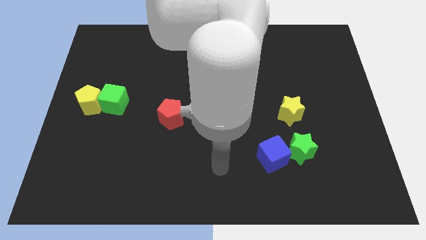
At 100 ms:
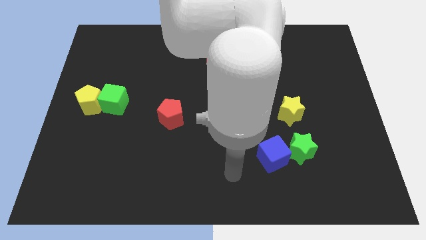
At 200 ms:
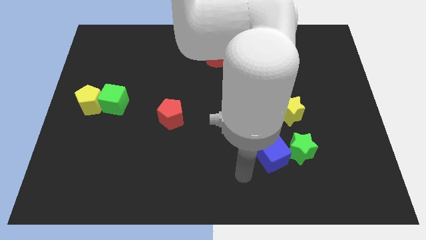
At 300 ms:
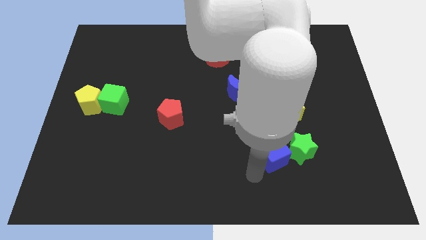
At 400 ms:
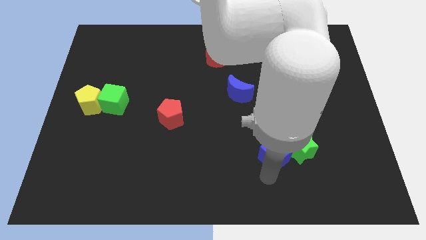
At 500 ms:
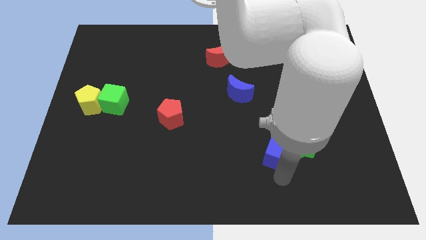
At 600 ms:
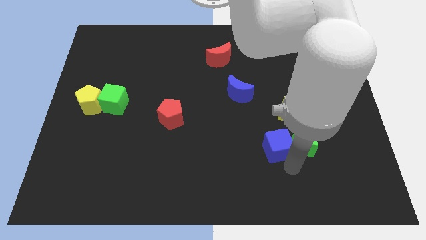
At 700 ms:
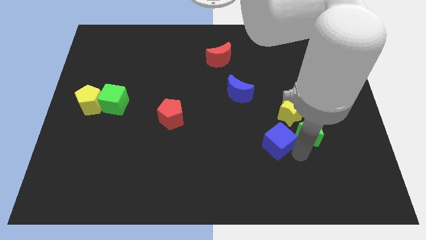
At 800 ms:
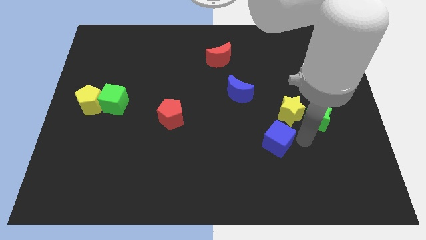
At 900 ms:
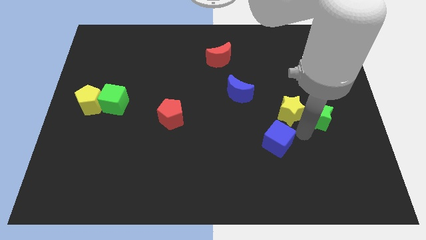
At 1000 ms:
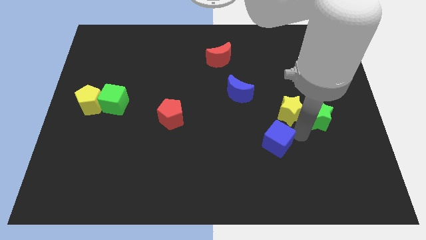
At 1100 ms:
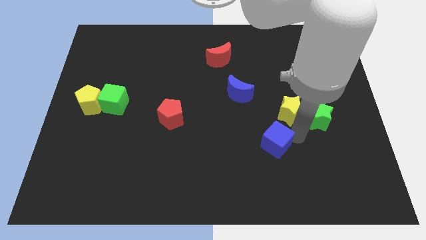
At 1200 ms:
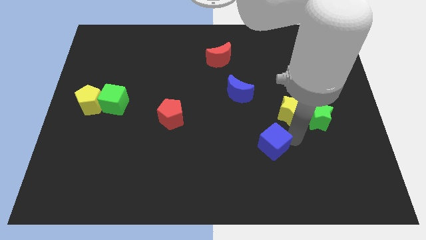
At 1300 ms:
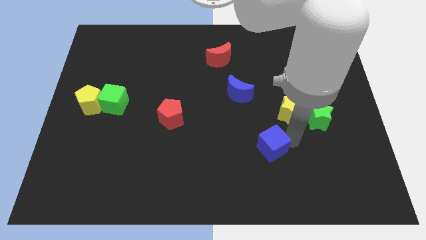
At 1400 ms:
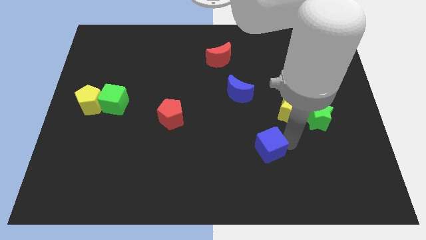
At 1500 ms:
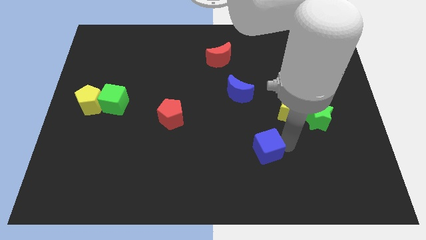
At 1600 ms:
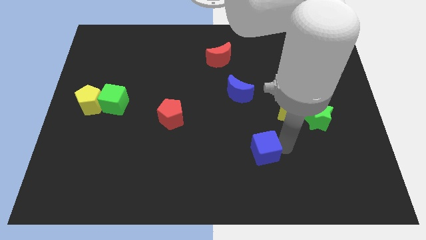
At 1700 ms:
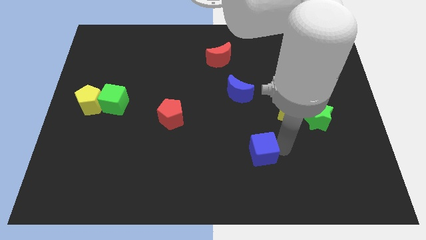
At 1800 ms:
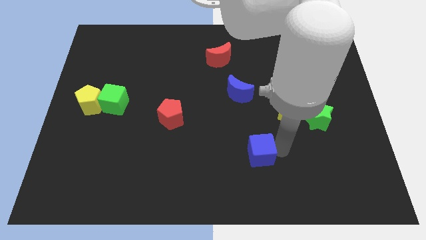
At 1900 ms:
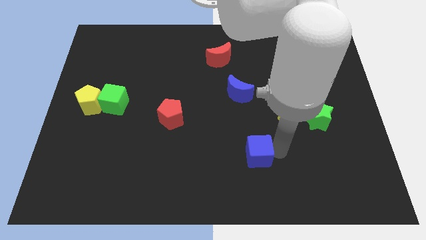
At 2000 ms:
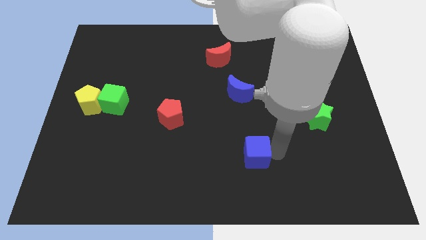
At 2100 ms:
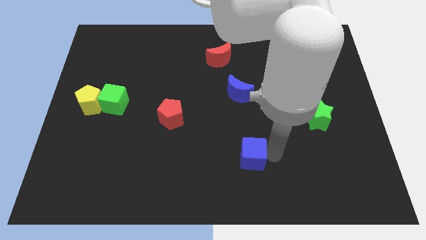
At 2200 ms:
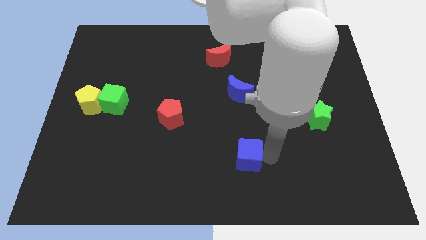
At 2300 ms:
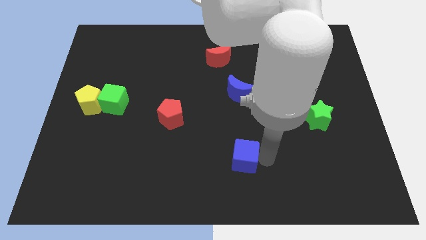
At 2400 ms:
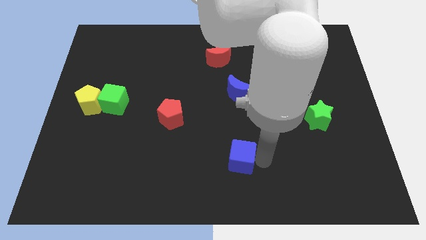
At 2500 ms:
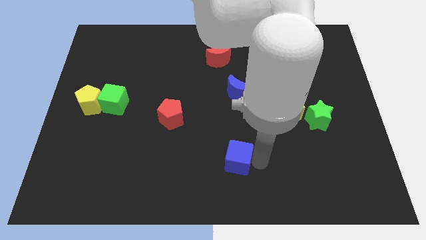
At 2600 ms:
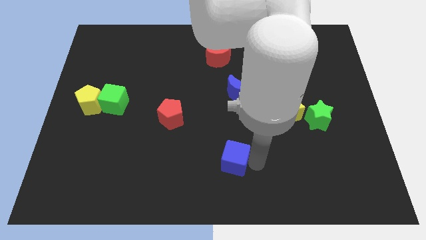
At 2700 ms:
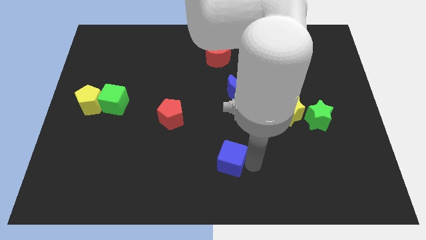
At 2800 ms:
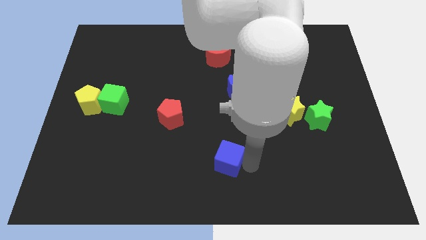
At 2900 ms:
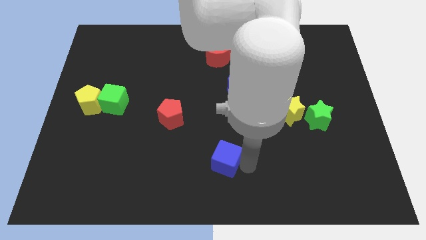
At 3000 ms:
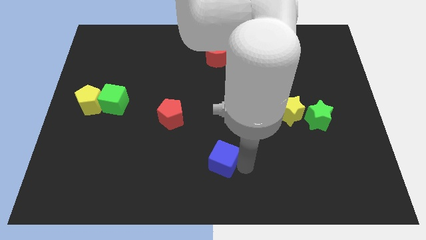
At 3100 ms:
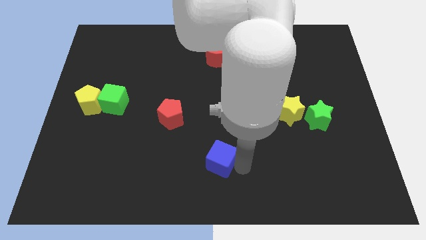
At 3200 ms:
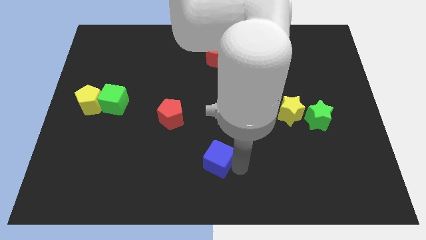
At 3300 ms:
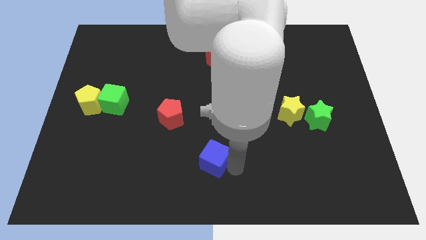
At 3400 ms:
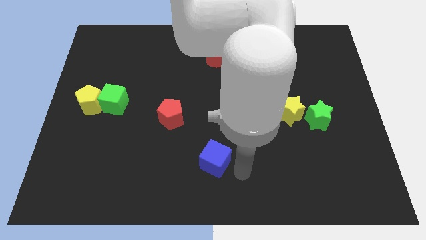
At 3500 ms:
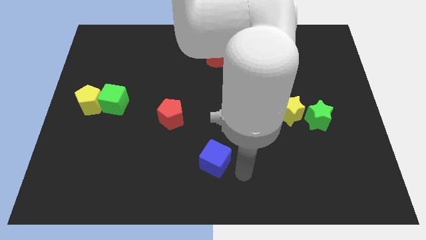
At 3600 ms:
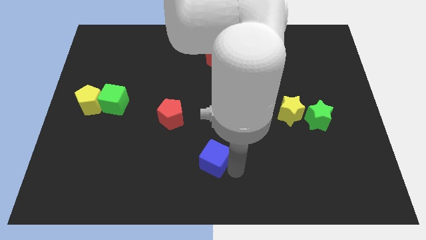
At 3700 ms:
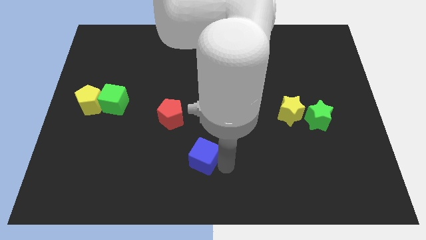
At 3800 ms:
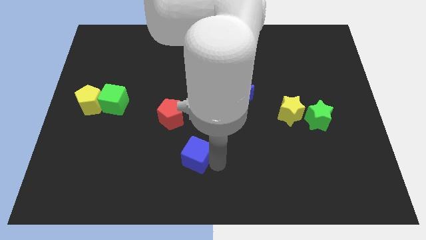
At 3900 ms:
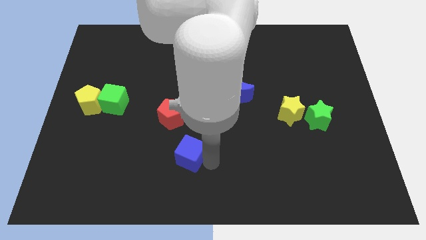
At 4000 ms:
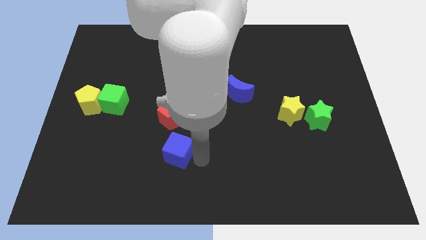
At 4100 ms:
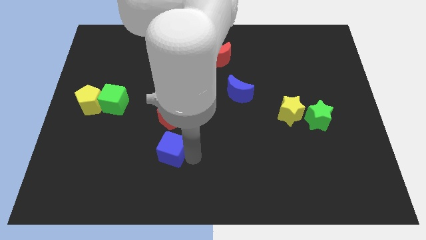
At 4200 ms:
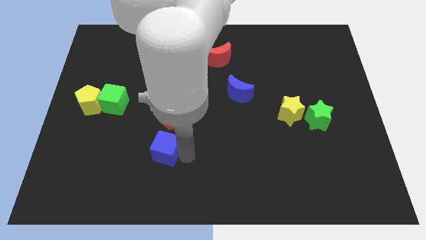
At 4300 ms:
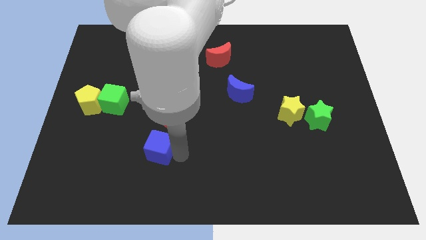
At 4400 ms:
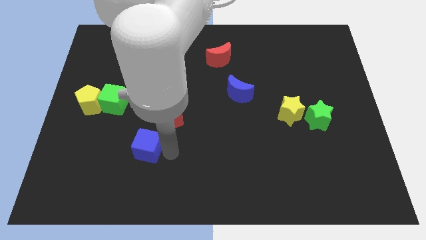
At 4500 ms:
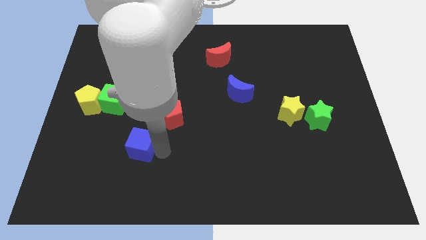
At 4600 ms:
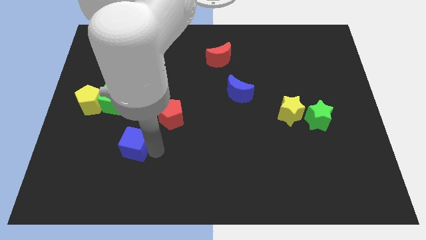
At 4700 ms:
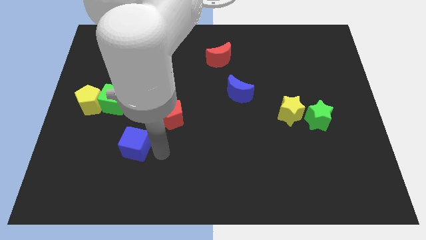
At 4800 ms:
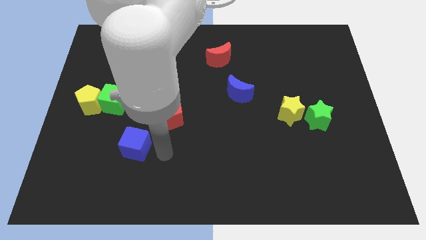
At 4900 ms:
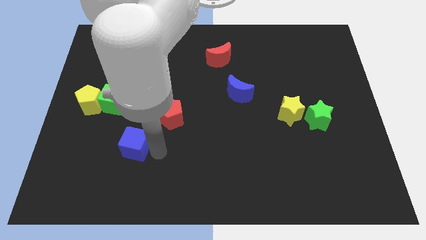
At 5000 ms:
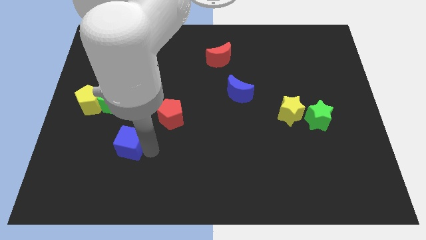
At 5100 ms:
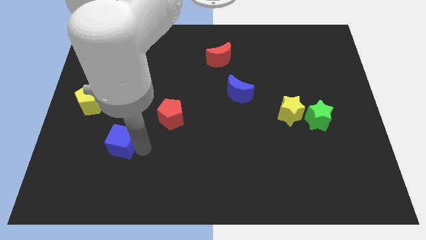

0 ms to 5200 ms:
slide the blue cube below the green cube
